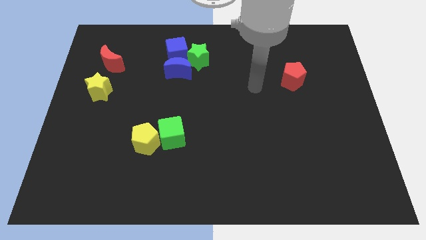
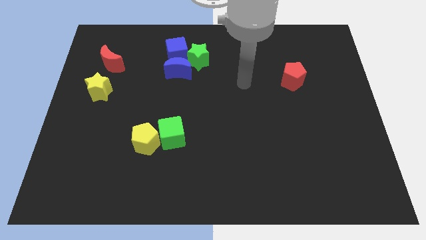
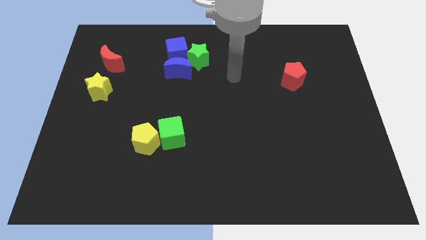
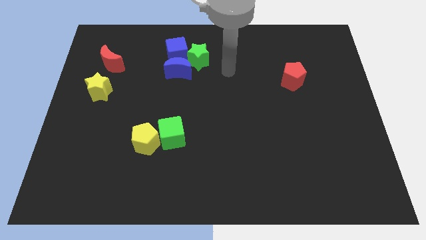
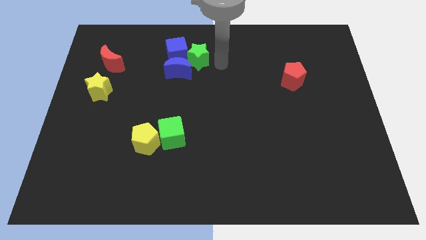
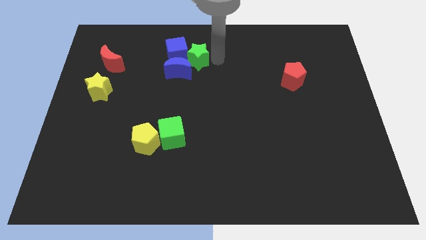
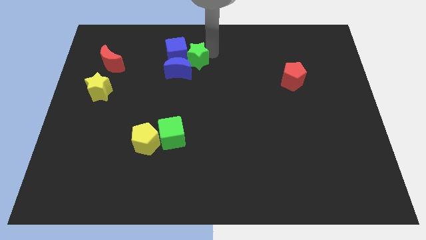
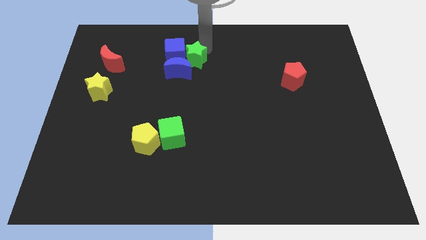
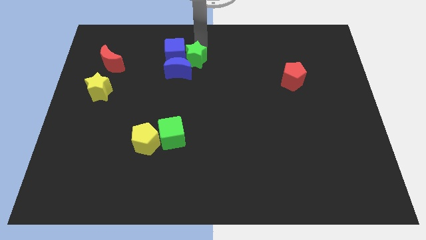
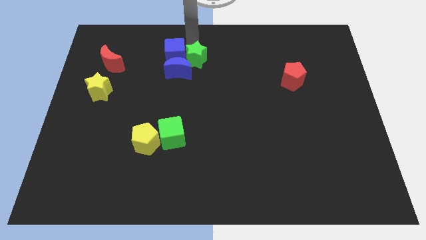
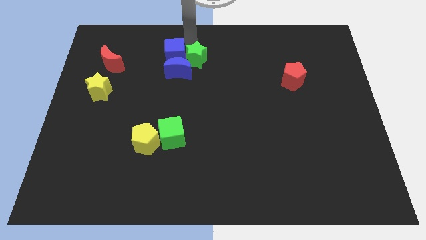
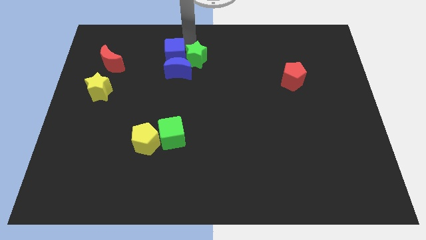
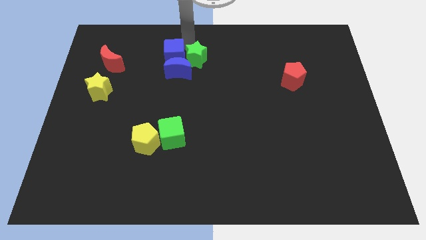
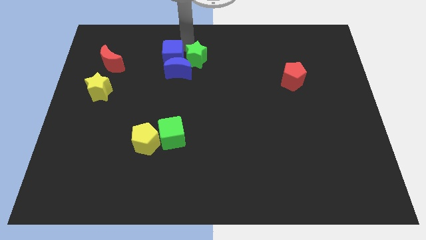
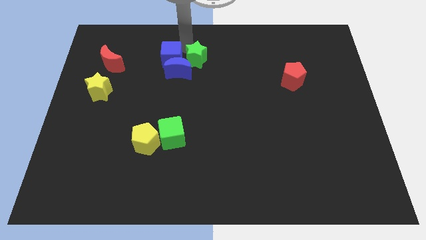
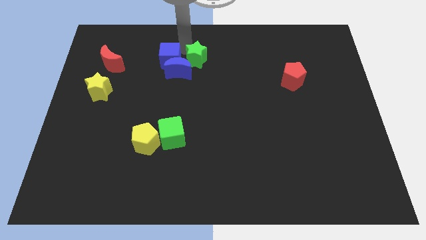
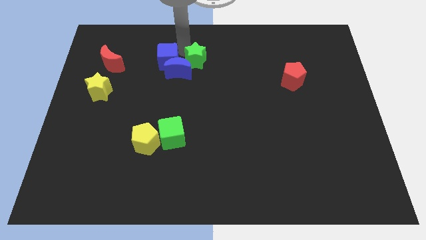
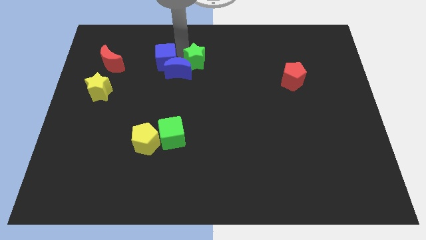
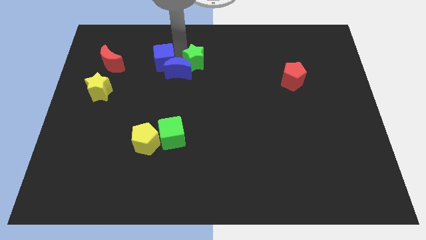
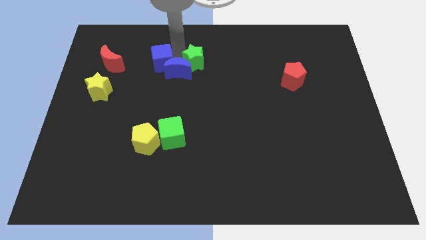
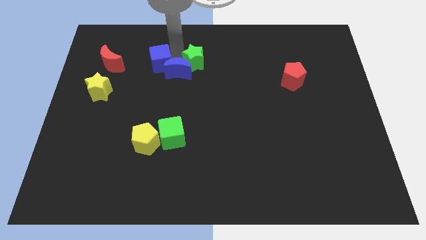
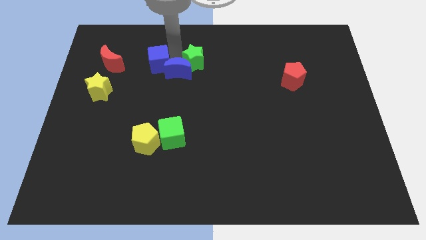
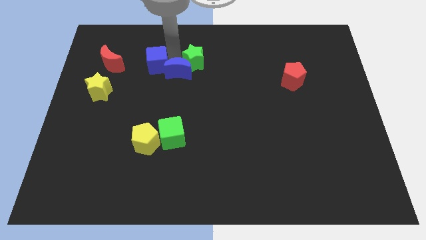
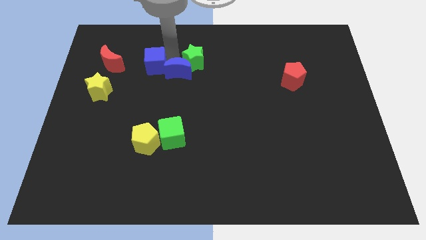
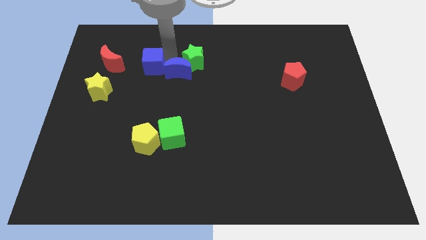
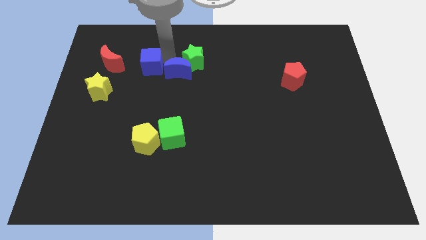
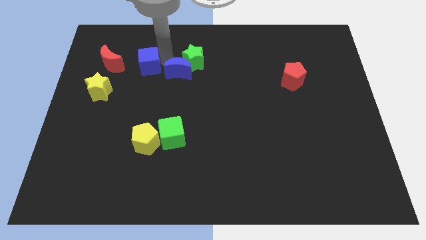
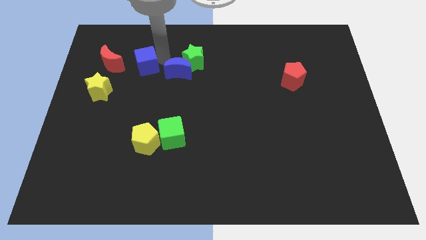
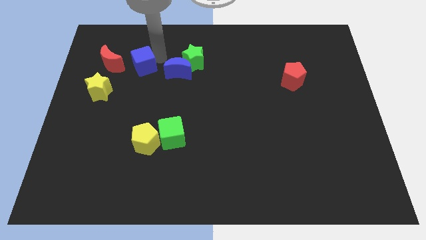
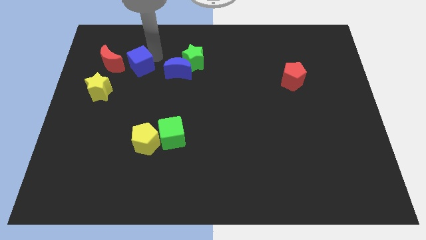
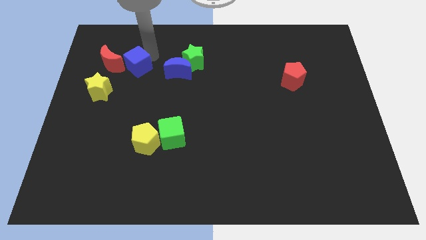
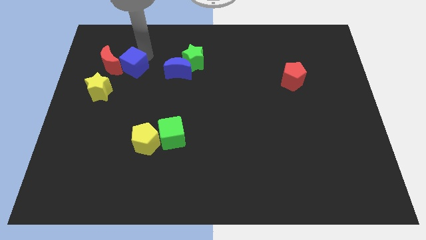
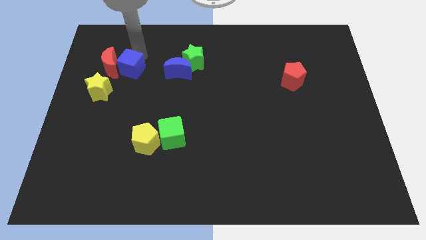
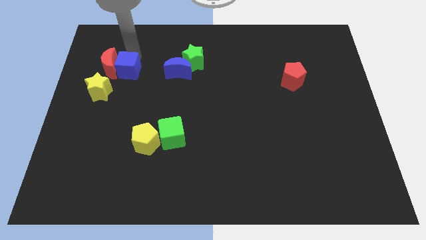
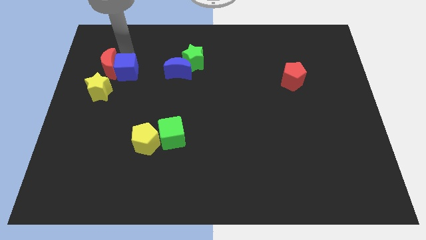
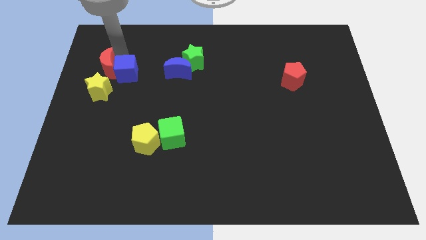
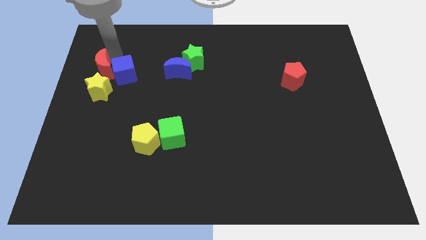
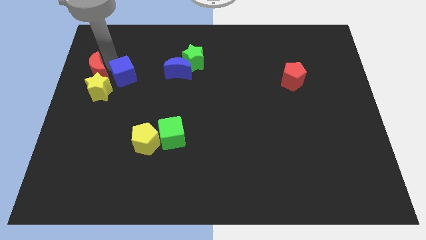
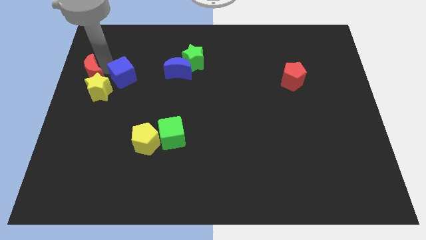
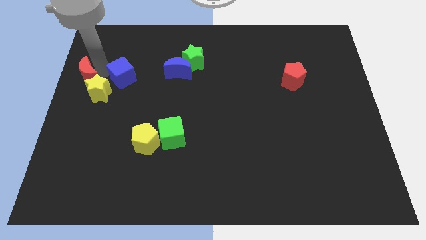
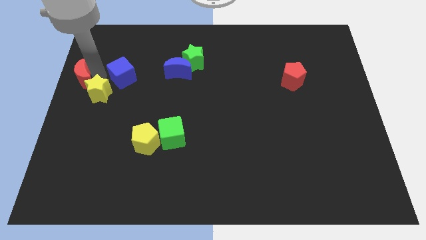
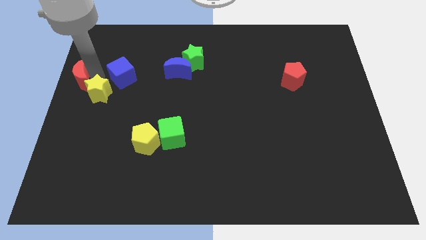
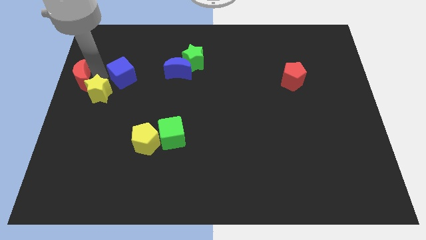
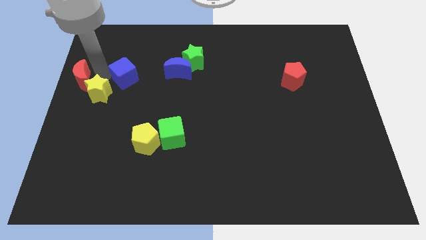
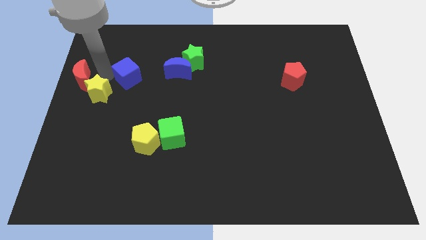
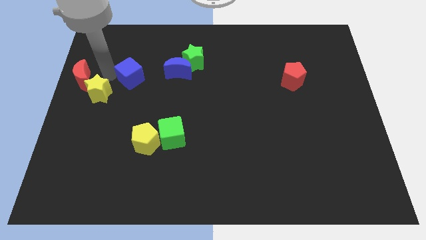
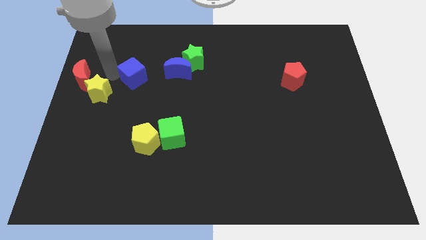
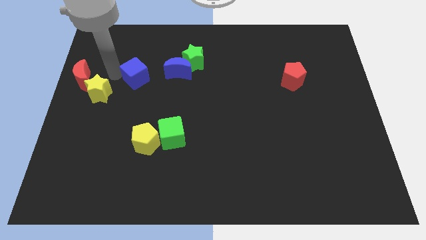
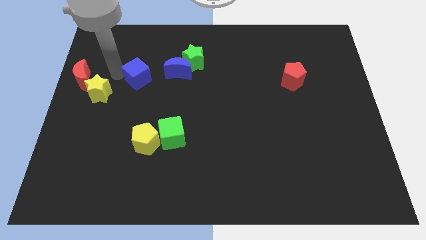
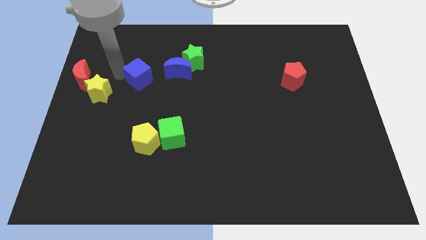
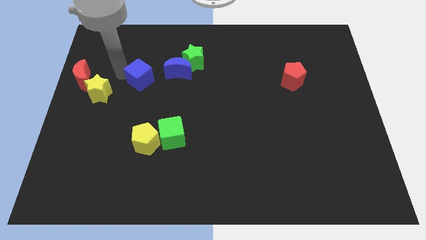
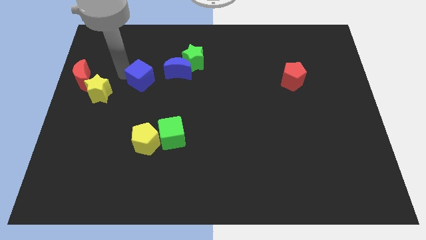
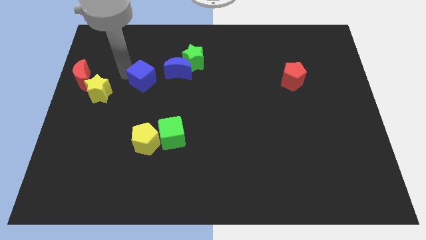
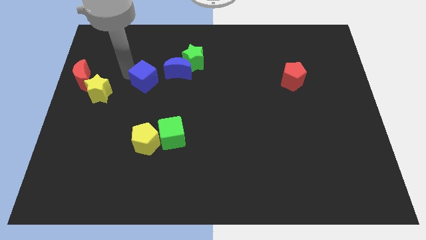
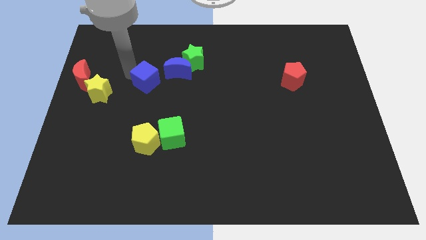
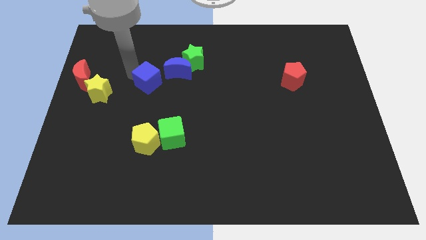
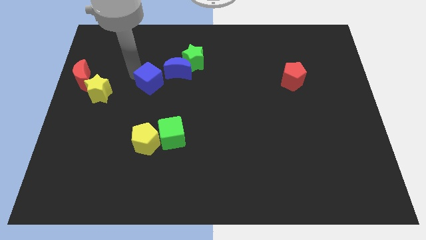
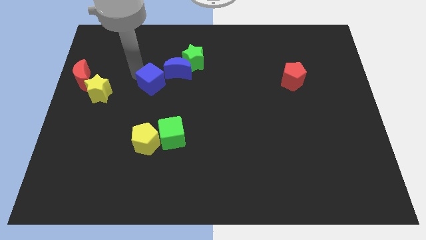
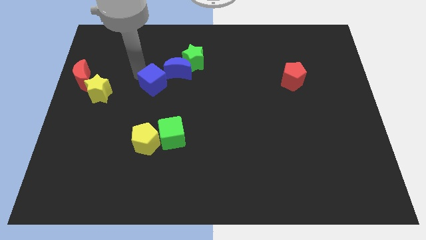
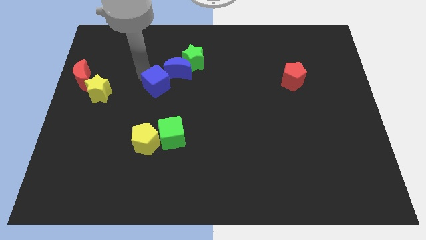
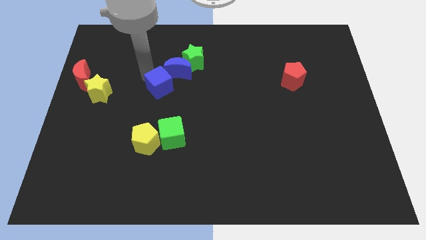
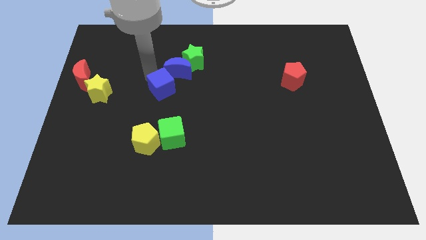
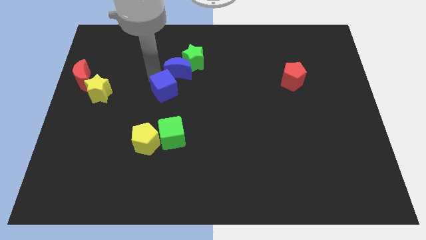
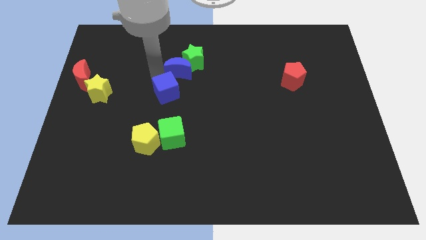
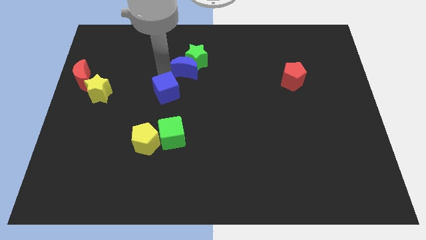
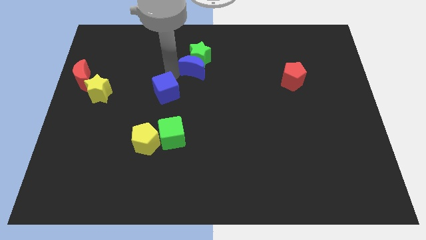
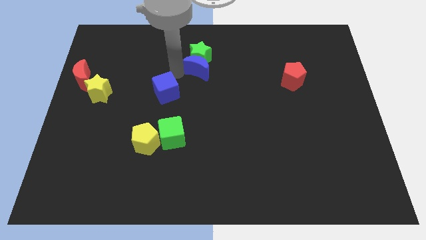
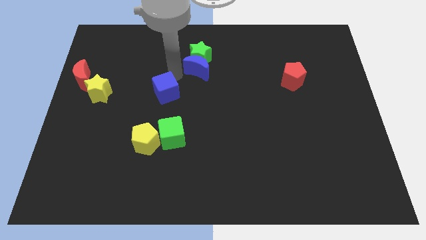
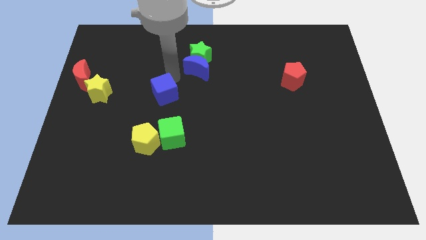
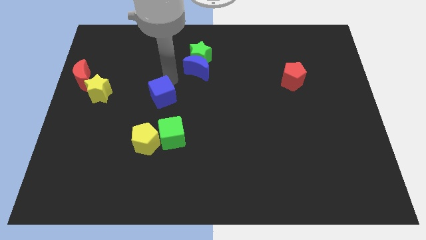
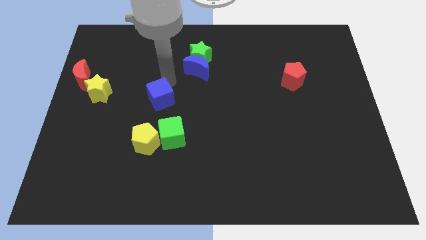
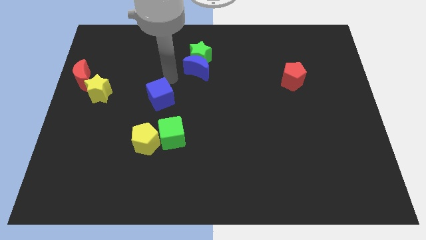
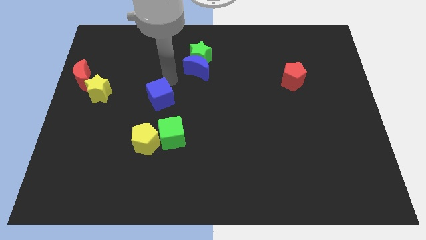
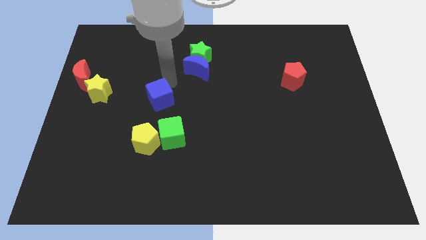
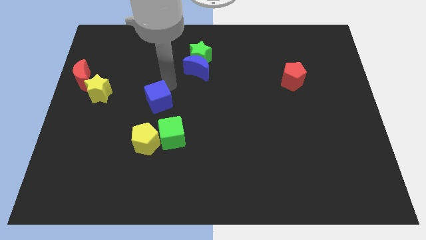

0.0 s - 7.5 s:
push the blue cube diagonally up and to the left of the green cube
